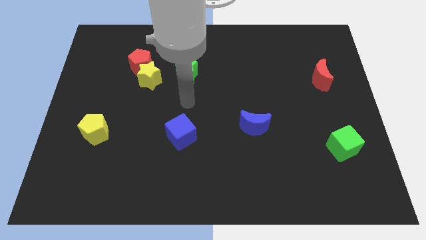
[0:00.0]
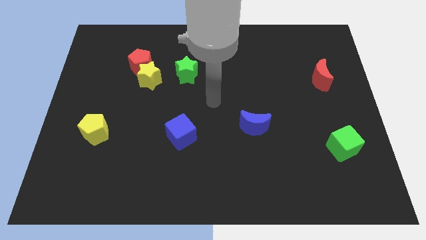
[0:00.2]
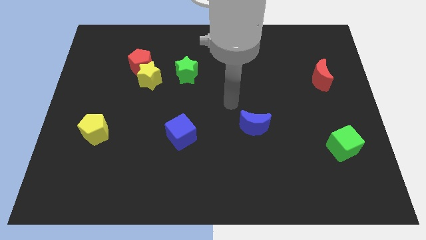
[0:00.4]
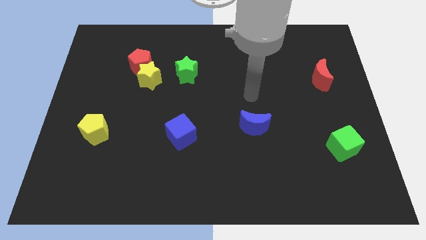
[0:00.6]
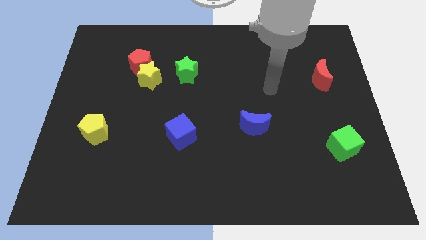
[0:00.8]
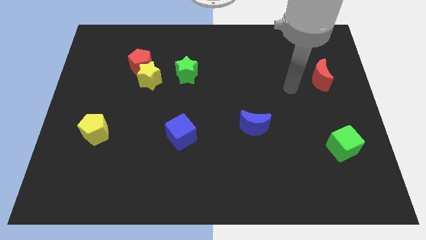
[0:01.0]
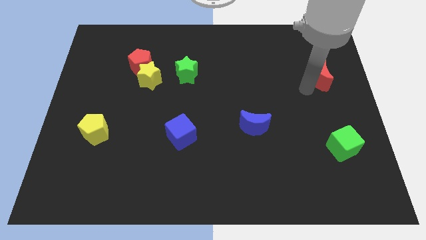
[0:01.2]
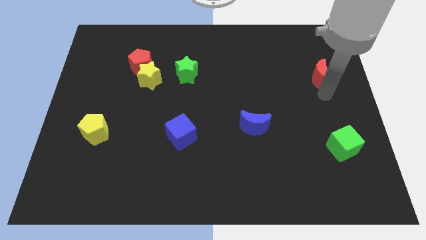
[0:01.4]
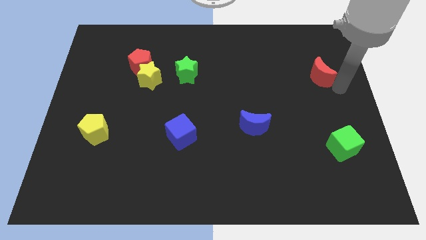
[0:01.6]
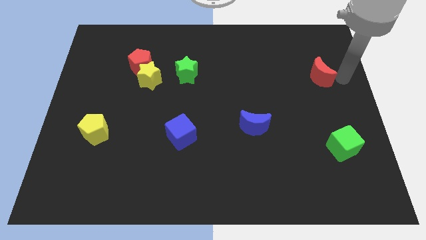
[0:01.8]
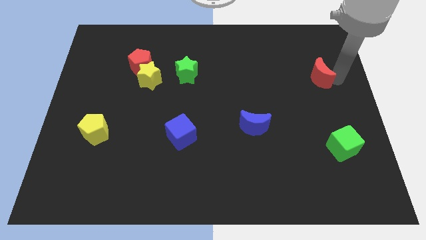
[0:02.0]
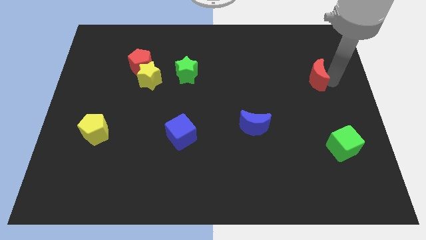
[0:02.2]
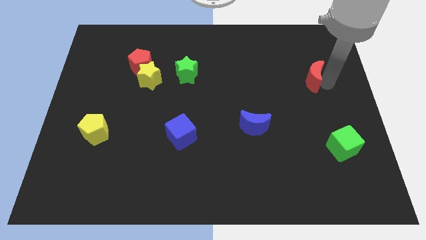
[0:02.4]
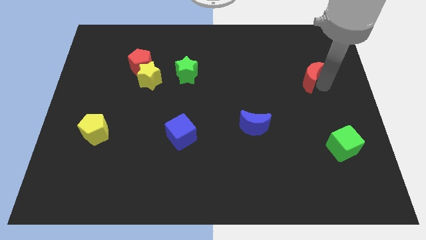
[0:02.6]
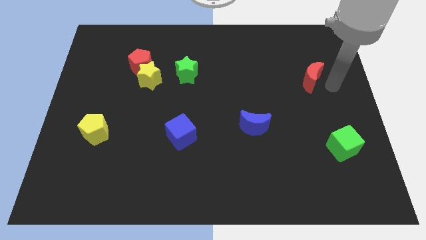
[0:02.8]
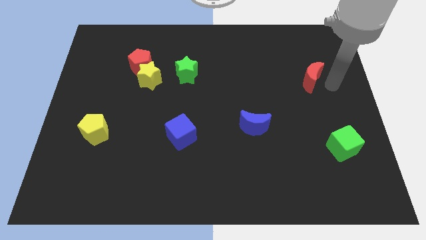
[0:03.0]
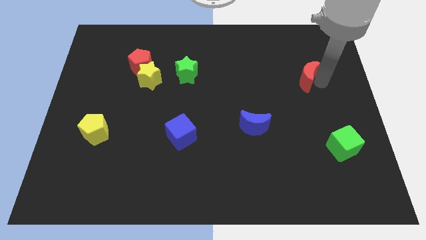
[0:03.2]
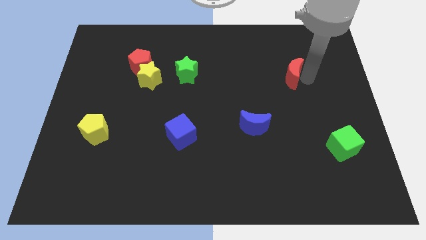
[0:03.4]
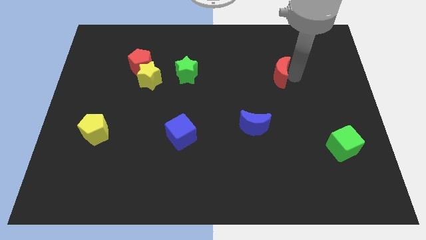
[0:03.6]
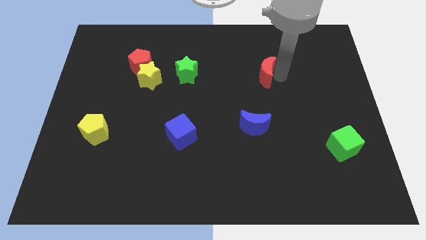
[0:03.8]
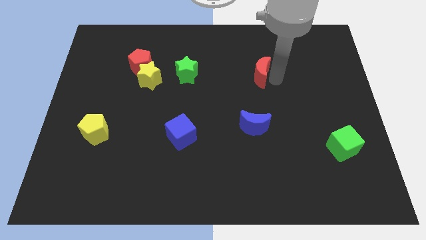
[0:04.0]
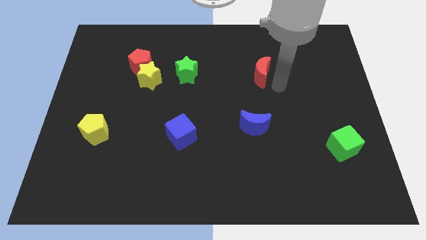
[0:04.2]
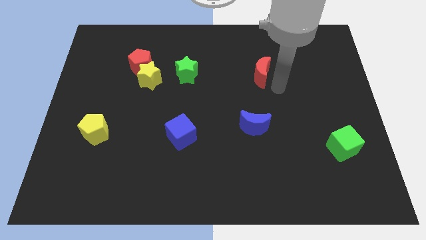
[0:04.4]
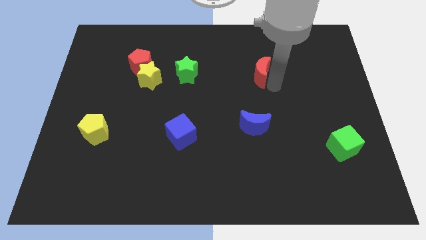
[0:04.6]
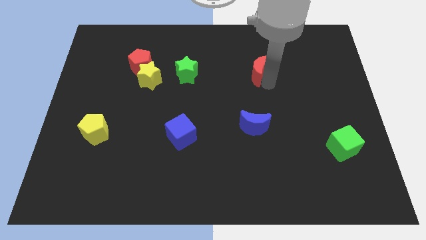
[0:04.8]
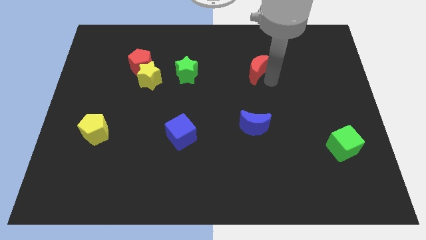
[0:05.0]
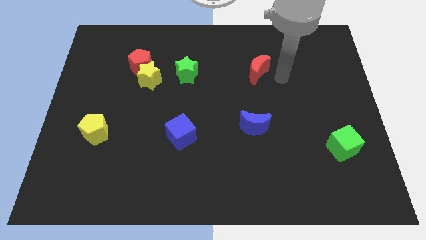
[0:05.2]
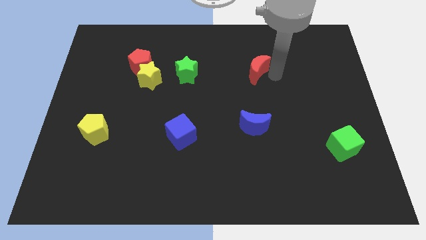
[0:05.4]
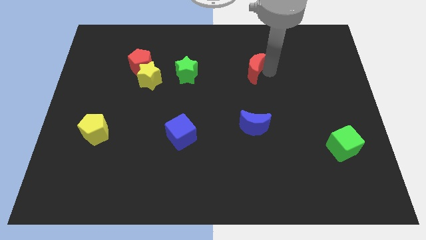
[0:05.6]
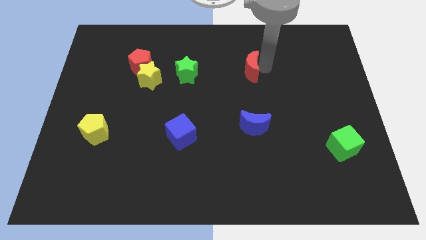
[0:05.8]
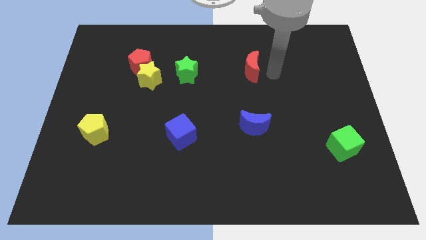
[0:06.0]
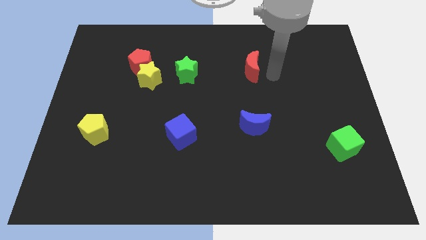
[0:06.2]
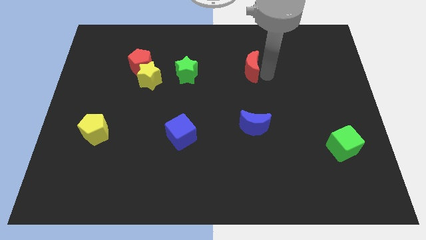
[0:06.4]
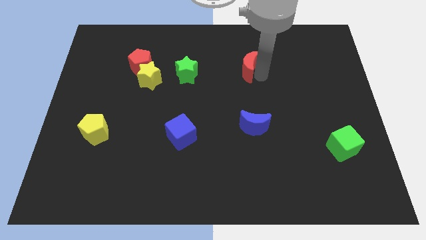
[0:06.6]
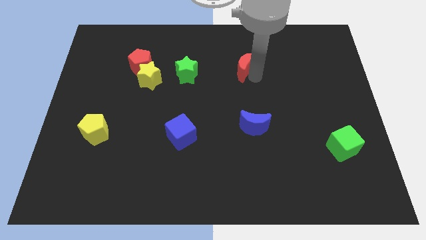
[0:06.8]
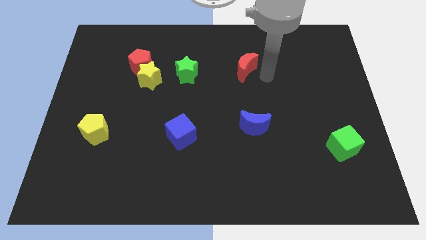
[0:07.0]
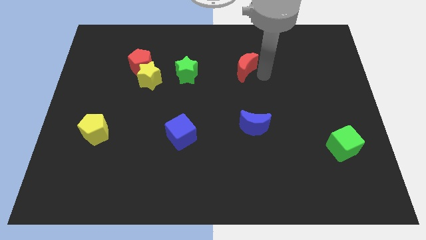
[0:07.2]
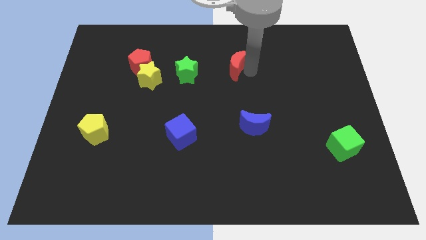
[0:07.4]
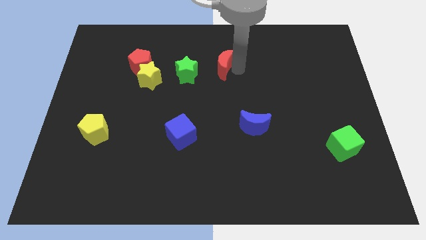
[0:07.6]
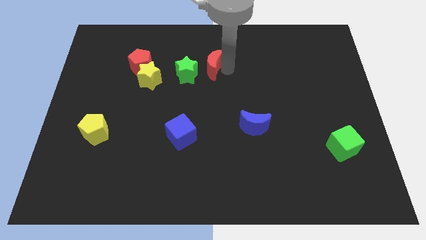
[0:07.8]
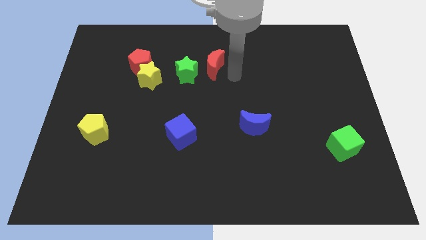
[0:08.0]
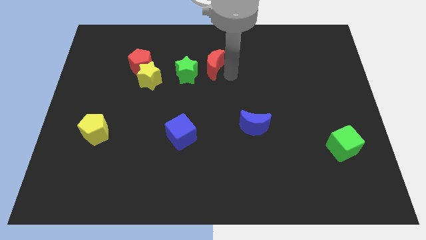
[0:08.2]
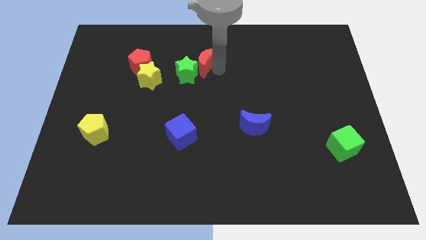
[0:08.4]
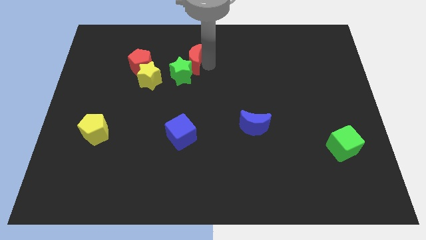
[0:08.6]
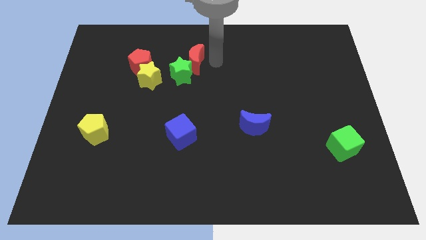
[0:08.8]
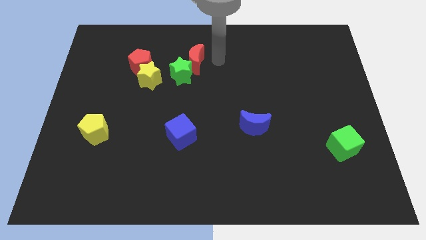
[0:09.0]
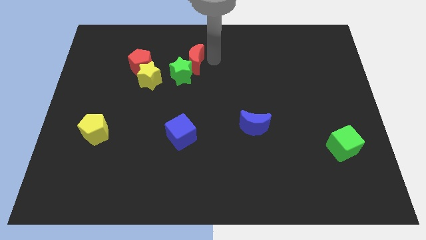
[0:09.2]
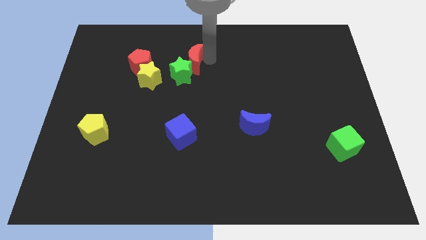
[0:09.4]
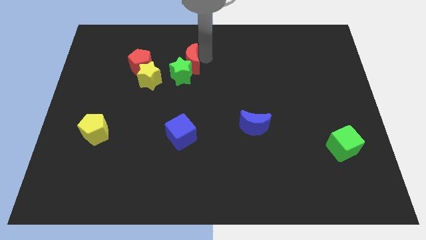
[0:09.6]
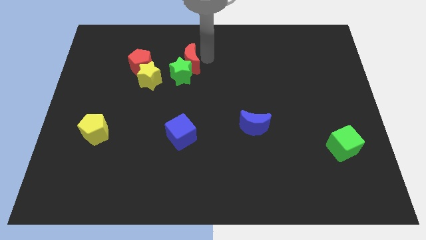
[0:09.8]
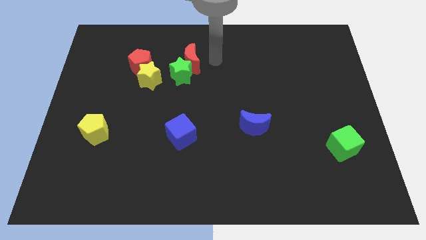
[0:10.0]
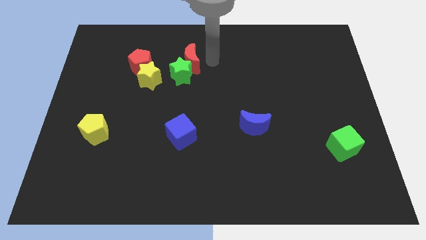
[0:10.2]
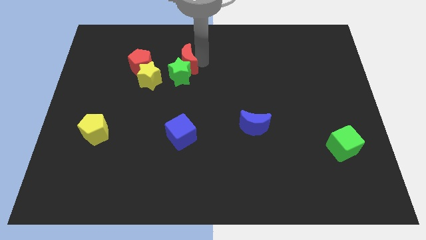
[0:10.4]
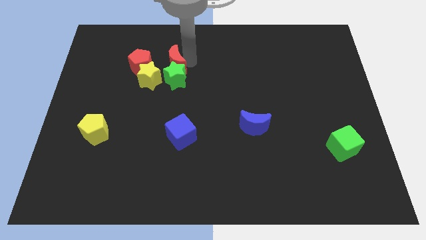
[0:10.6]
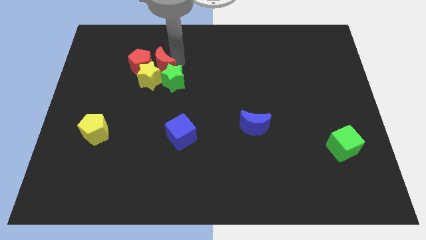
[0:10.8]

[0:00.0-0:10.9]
move the red moon towards the yellow star

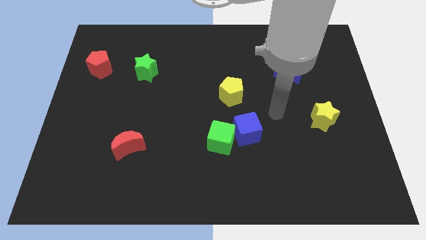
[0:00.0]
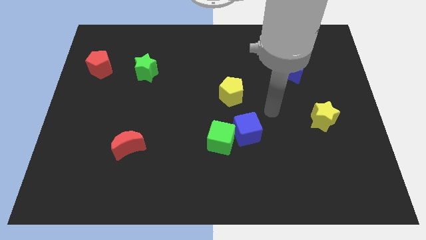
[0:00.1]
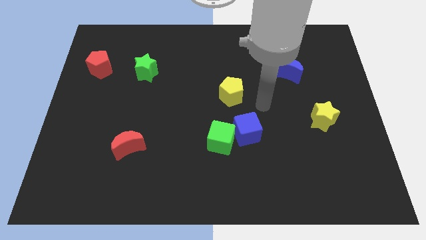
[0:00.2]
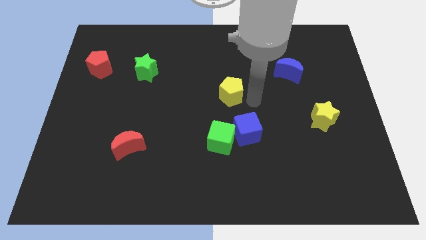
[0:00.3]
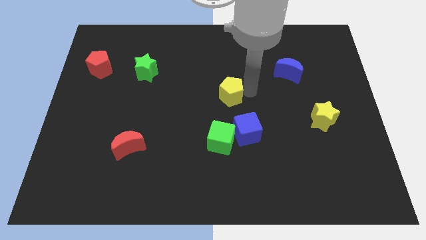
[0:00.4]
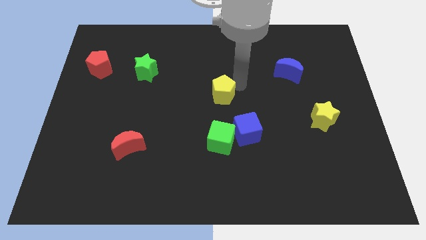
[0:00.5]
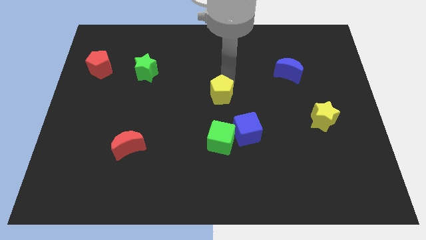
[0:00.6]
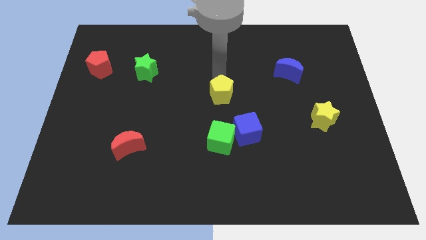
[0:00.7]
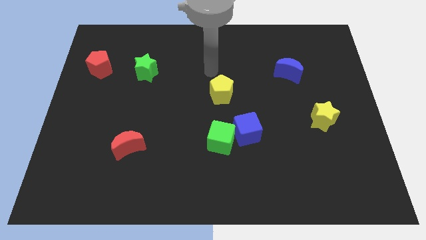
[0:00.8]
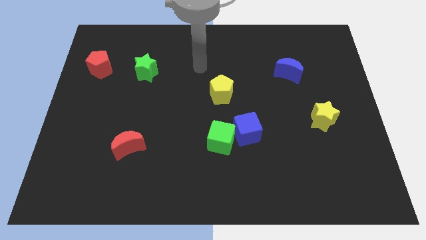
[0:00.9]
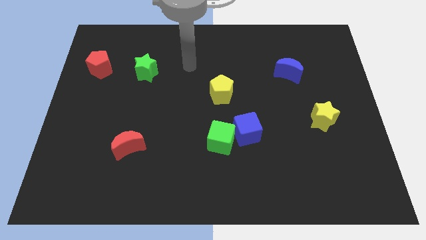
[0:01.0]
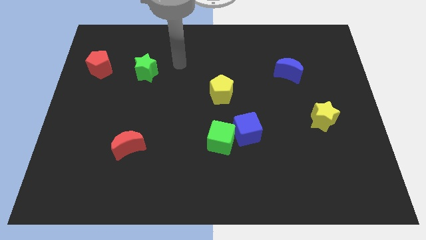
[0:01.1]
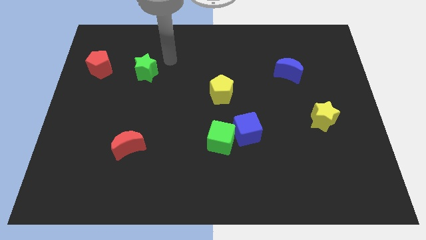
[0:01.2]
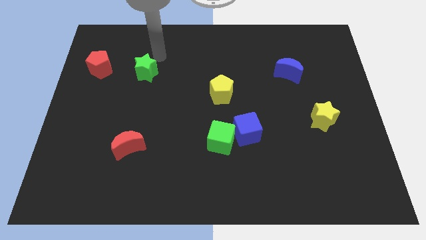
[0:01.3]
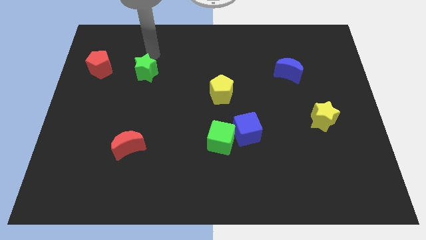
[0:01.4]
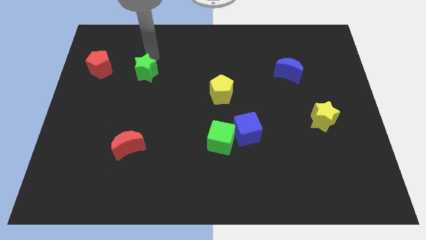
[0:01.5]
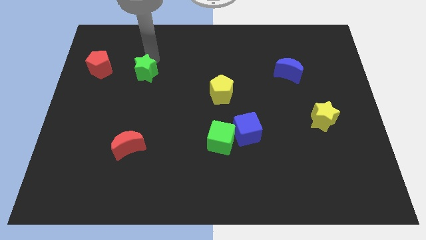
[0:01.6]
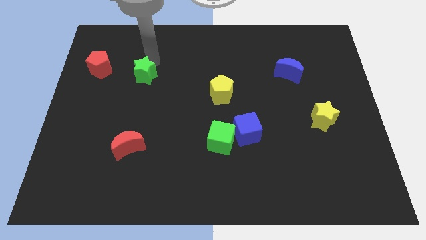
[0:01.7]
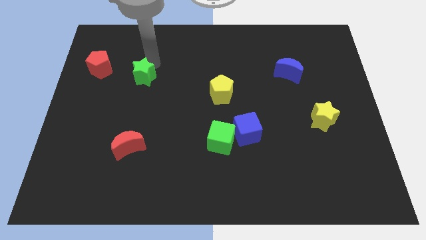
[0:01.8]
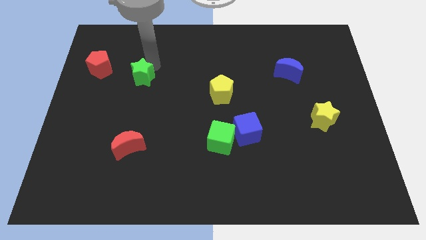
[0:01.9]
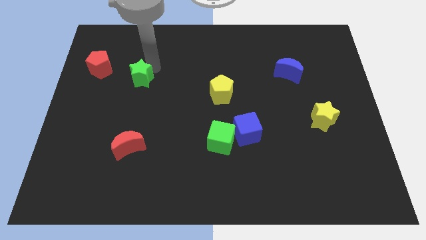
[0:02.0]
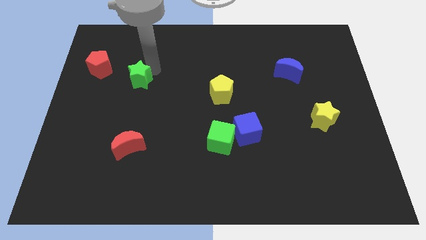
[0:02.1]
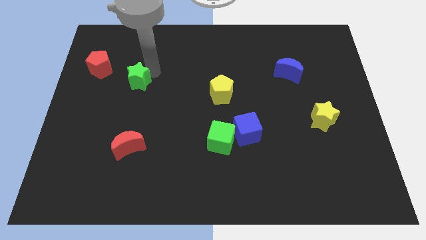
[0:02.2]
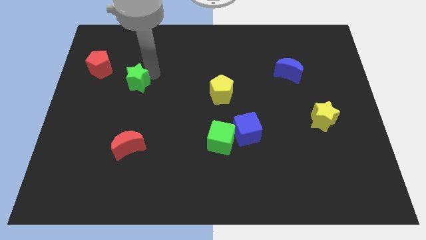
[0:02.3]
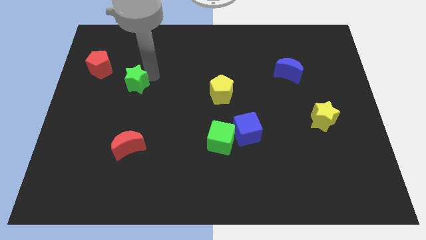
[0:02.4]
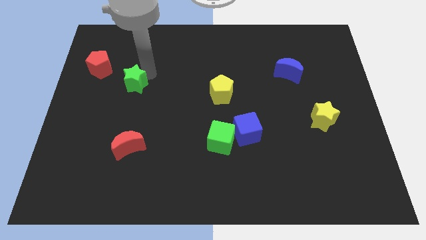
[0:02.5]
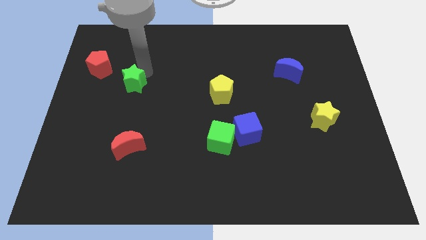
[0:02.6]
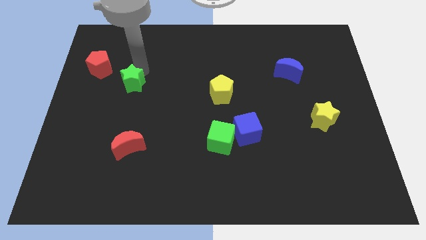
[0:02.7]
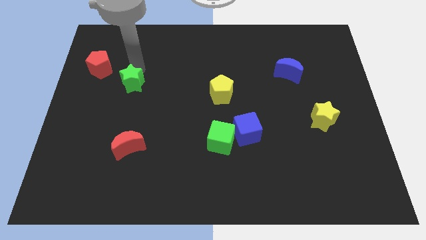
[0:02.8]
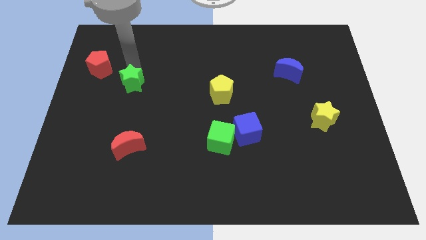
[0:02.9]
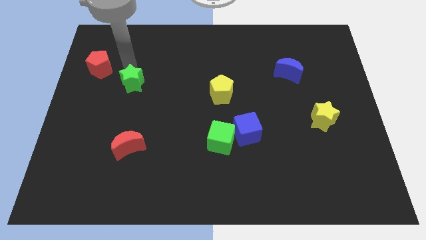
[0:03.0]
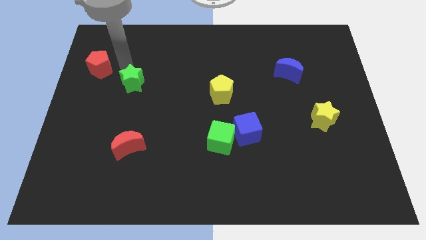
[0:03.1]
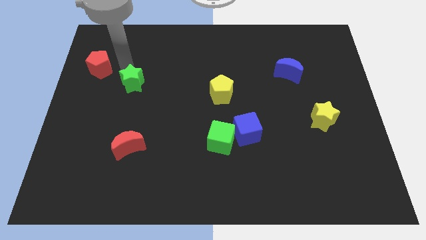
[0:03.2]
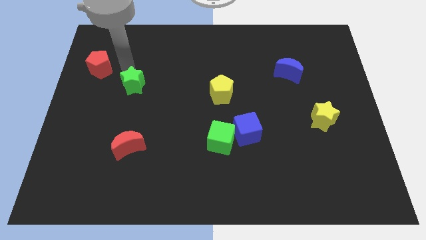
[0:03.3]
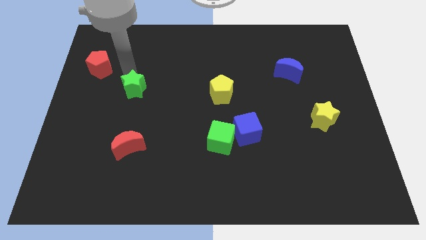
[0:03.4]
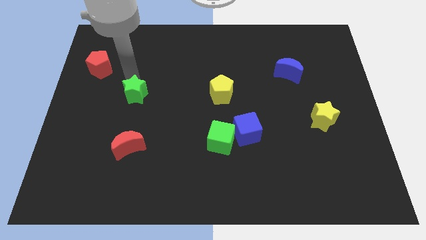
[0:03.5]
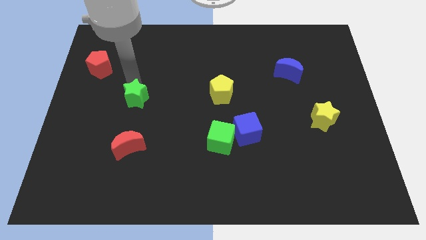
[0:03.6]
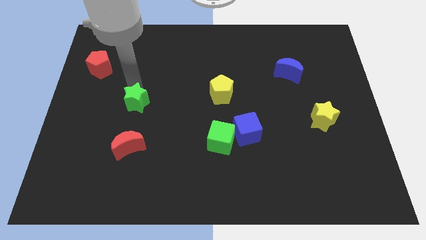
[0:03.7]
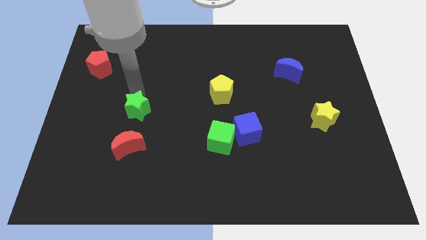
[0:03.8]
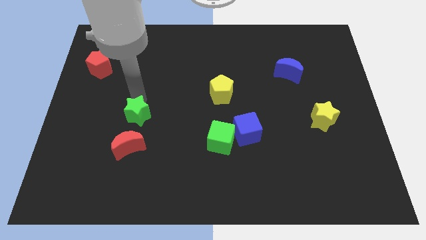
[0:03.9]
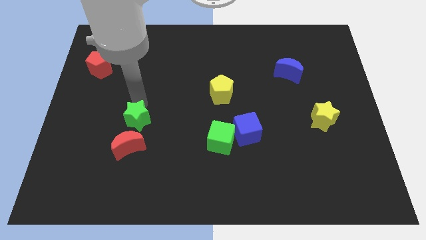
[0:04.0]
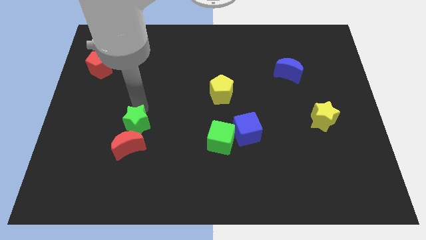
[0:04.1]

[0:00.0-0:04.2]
put the green star towards the red moon
